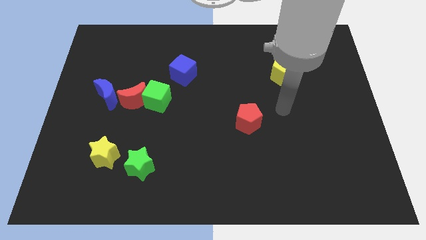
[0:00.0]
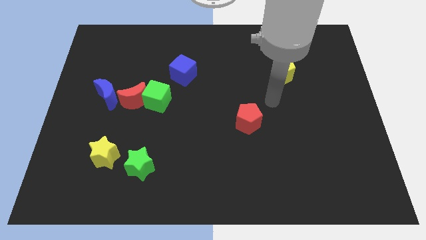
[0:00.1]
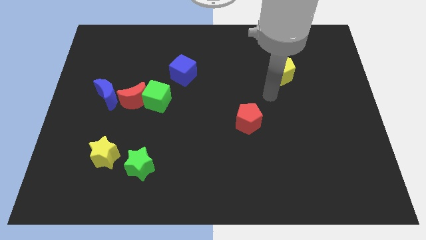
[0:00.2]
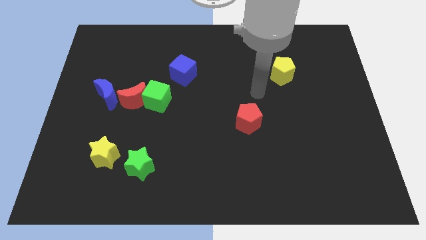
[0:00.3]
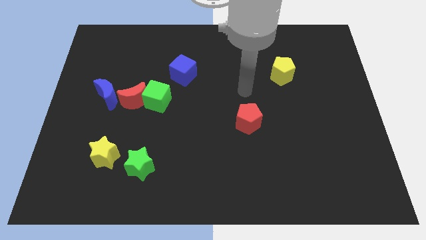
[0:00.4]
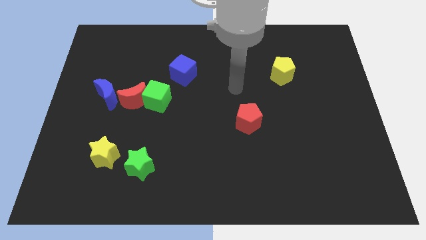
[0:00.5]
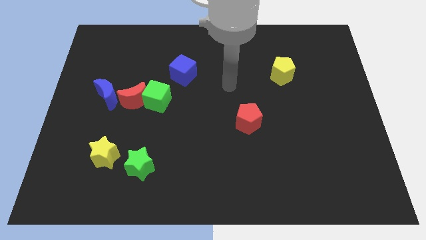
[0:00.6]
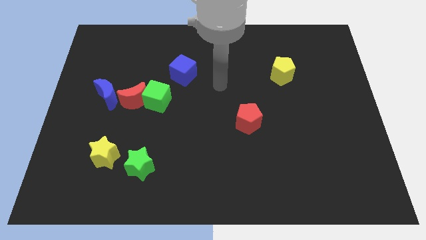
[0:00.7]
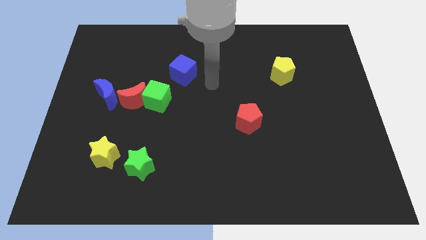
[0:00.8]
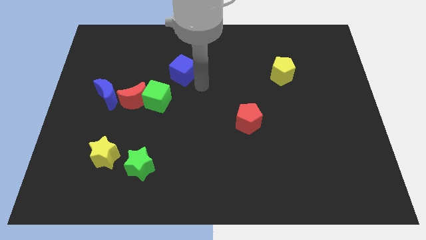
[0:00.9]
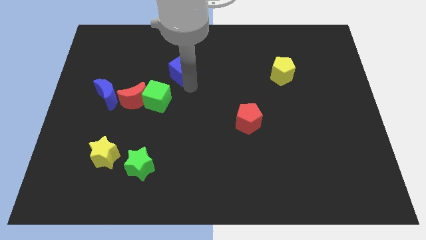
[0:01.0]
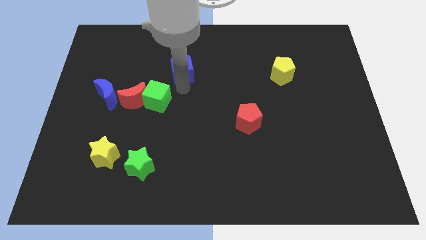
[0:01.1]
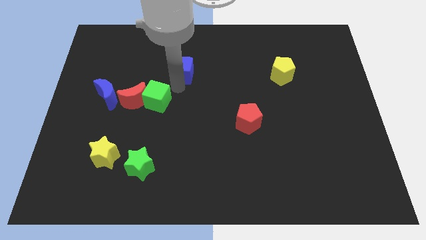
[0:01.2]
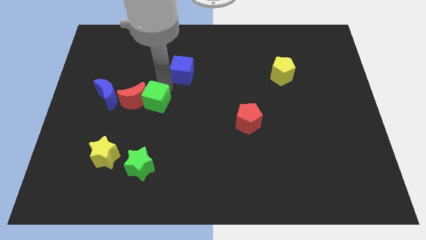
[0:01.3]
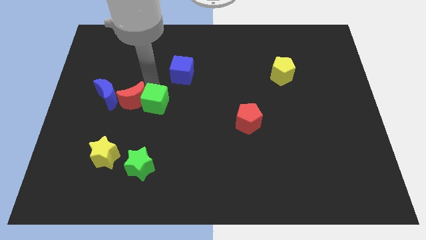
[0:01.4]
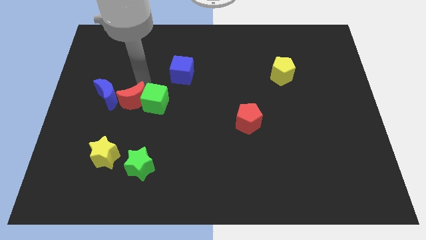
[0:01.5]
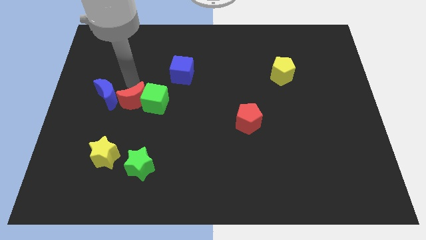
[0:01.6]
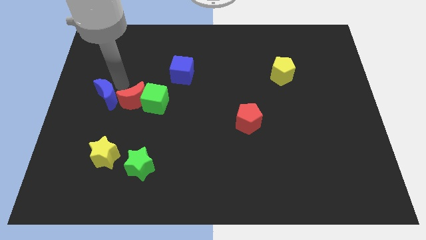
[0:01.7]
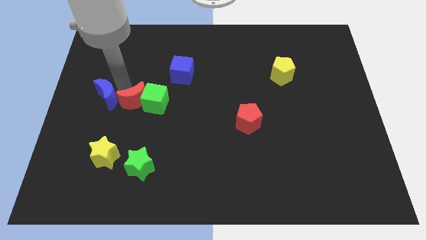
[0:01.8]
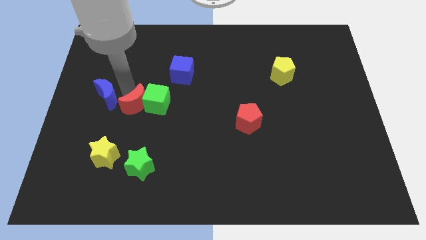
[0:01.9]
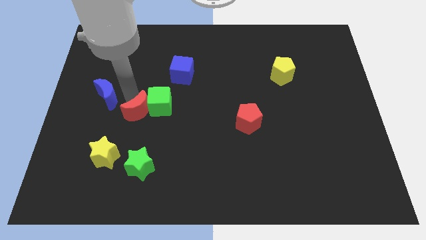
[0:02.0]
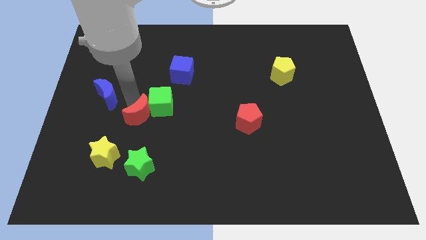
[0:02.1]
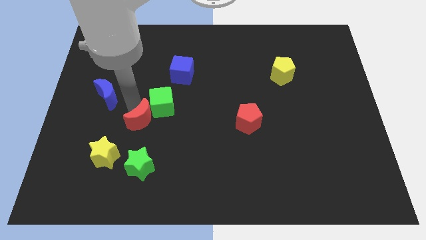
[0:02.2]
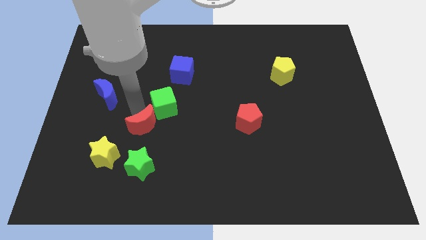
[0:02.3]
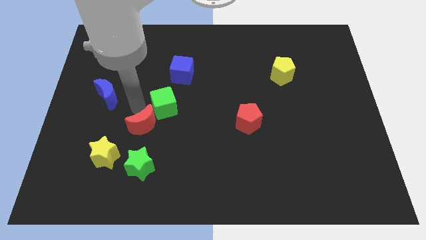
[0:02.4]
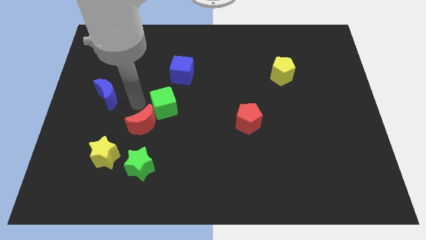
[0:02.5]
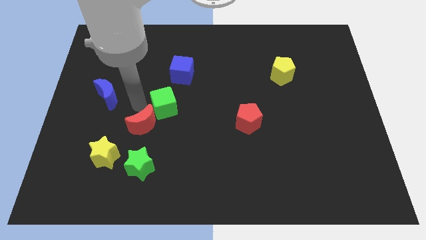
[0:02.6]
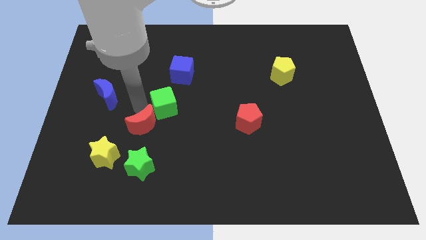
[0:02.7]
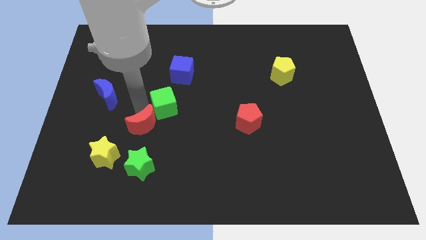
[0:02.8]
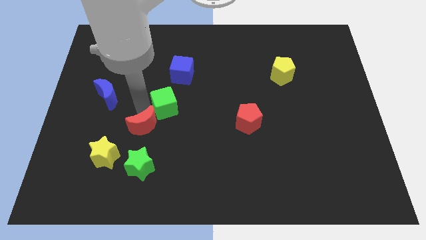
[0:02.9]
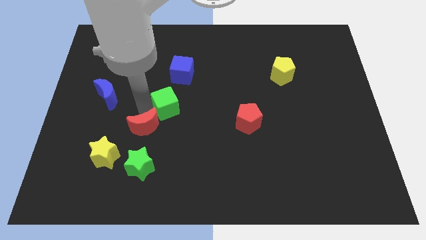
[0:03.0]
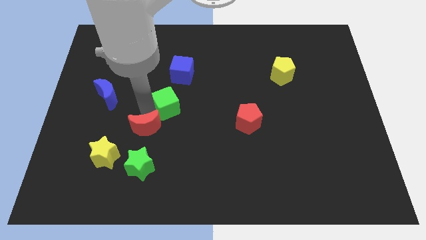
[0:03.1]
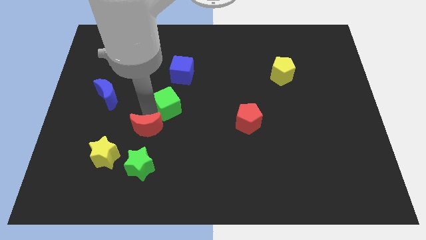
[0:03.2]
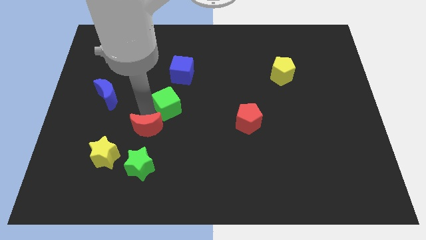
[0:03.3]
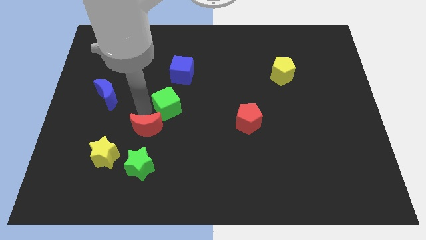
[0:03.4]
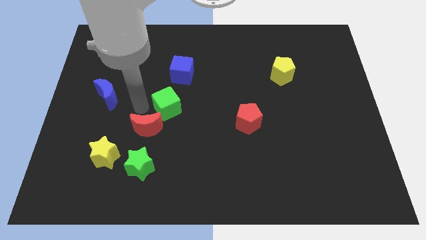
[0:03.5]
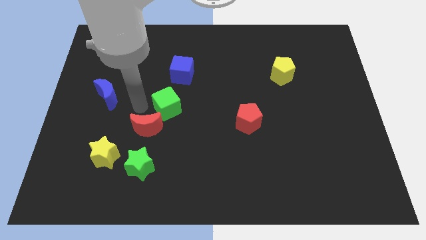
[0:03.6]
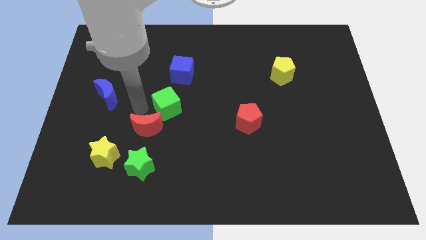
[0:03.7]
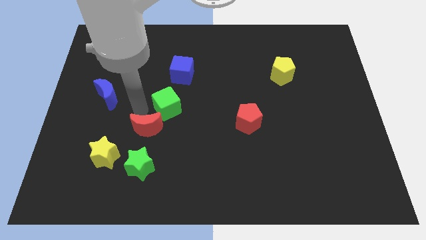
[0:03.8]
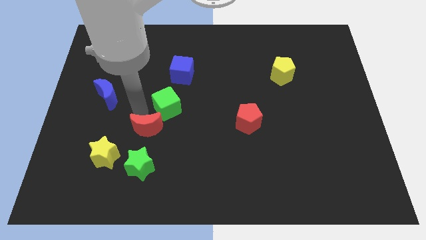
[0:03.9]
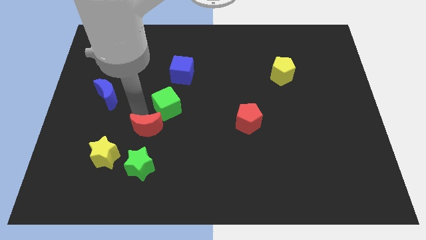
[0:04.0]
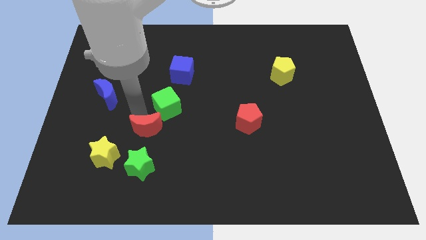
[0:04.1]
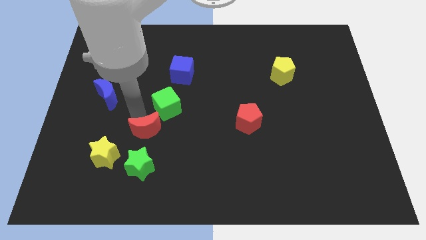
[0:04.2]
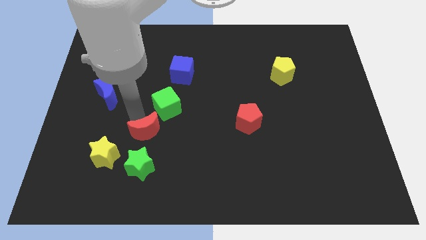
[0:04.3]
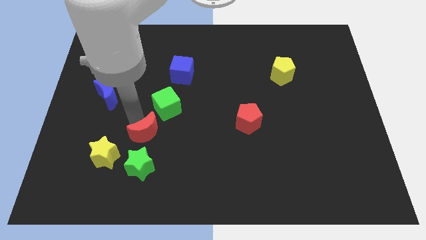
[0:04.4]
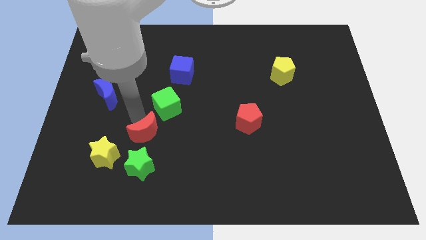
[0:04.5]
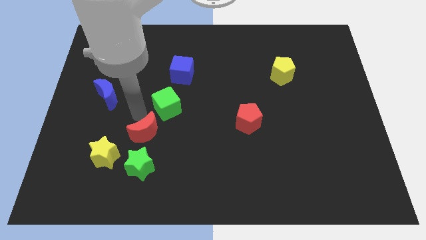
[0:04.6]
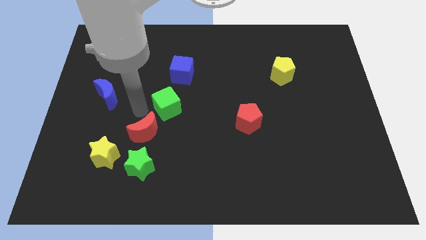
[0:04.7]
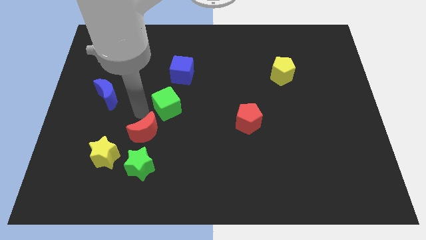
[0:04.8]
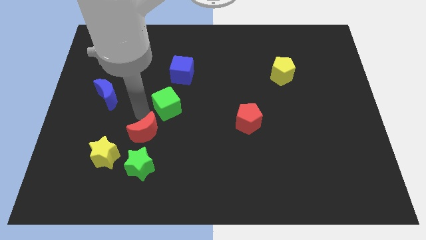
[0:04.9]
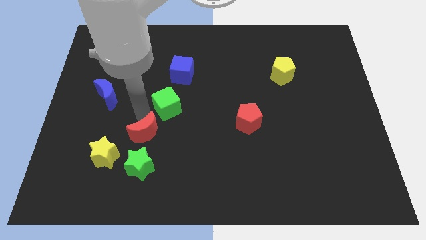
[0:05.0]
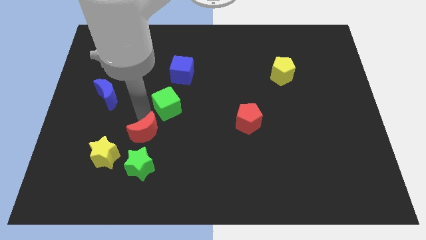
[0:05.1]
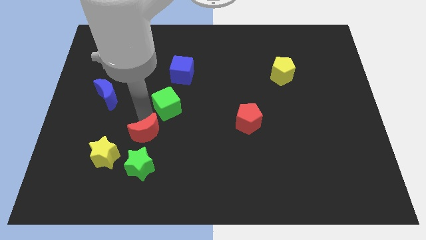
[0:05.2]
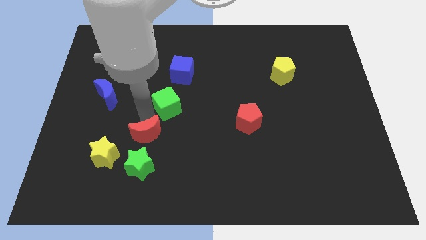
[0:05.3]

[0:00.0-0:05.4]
pull the red moon apart from the green cube and blue moon

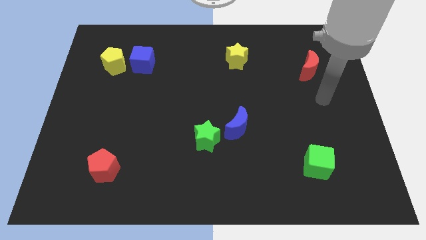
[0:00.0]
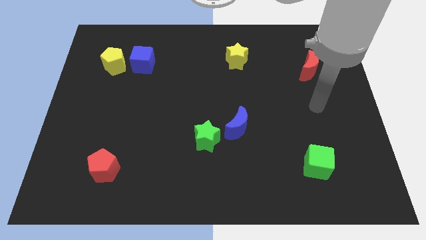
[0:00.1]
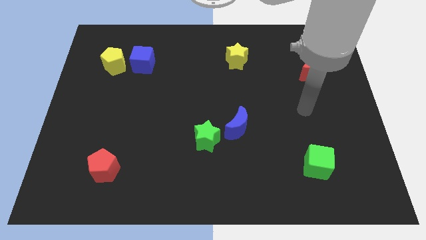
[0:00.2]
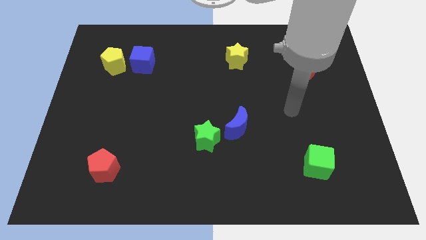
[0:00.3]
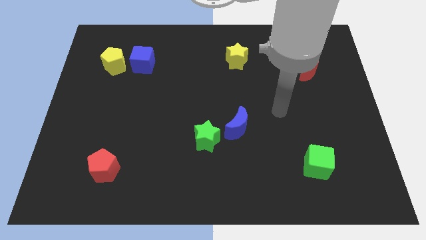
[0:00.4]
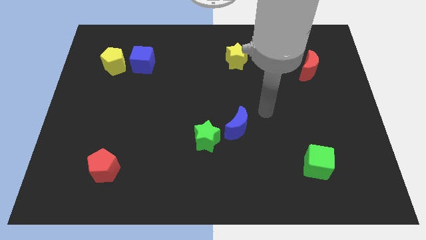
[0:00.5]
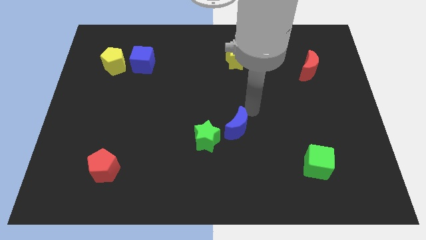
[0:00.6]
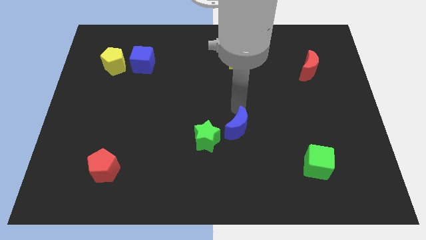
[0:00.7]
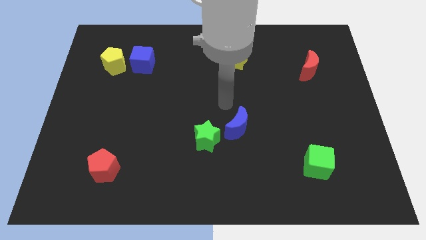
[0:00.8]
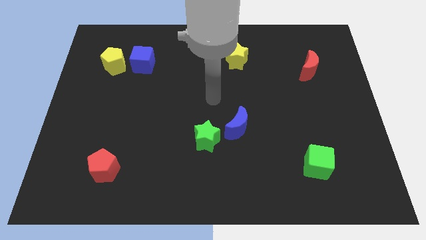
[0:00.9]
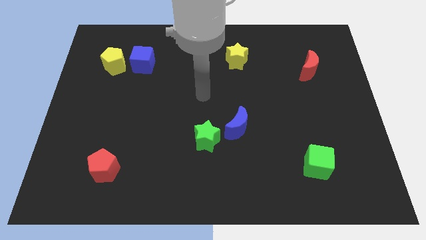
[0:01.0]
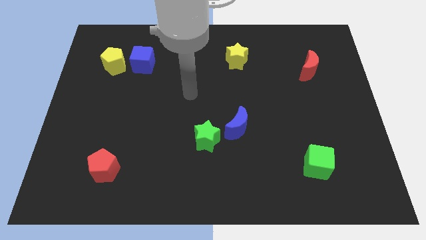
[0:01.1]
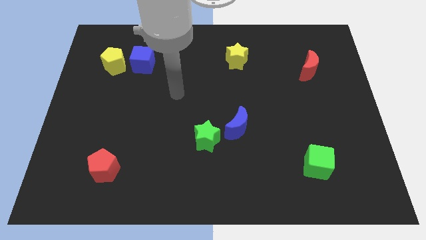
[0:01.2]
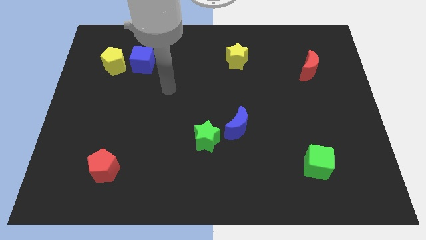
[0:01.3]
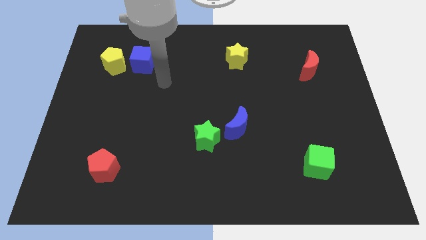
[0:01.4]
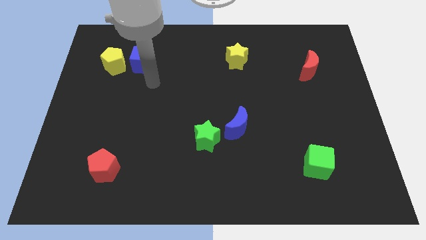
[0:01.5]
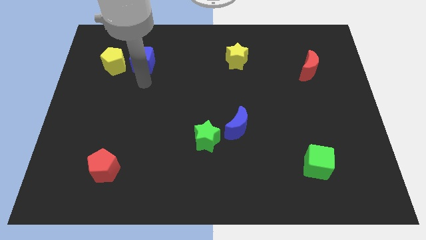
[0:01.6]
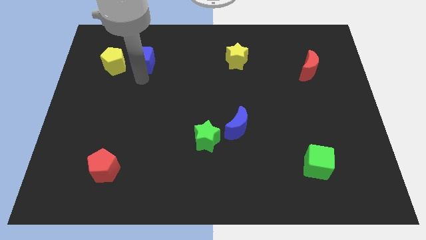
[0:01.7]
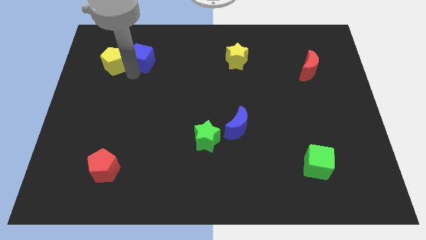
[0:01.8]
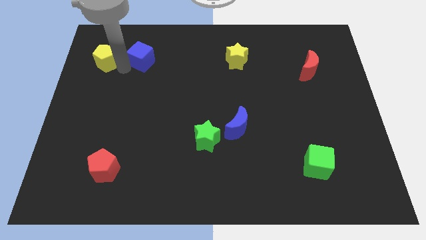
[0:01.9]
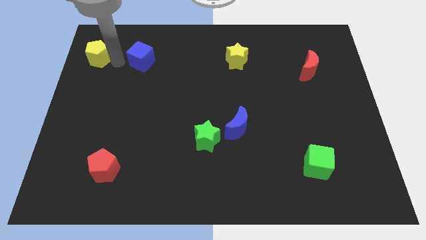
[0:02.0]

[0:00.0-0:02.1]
move the blue cube away from the yellow pentagon

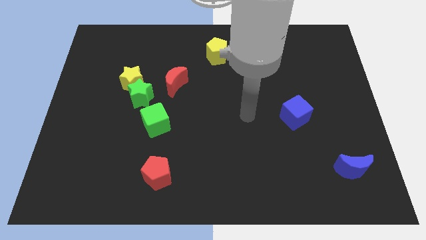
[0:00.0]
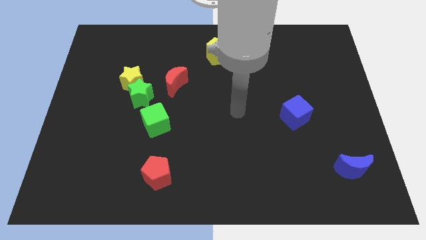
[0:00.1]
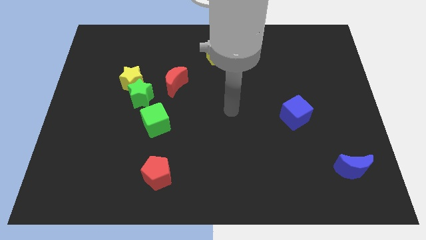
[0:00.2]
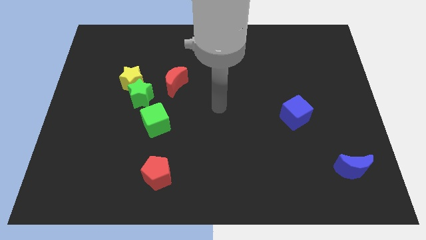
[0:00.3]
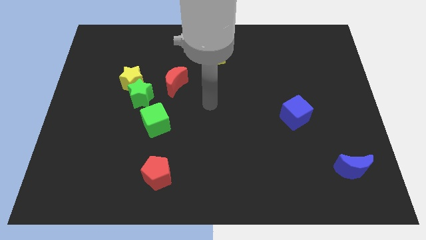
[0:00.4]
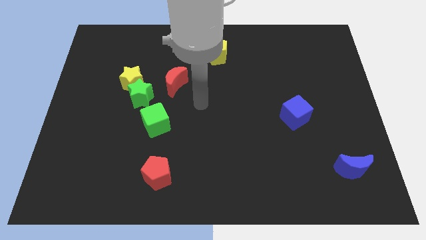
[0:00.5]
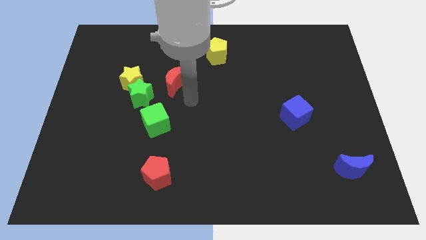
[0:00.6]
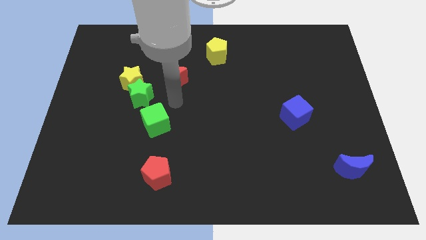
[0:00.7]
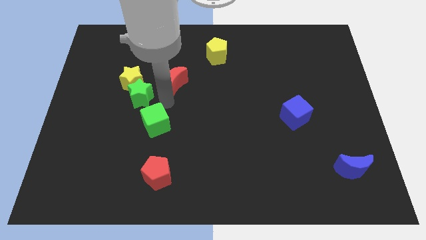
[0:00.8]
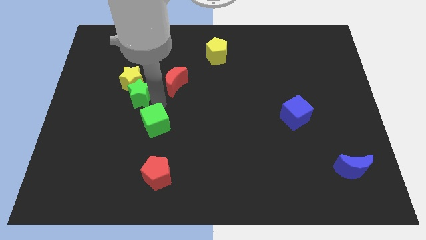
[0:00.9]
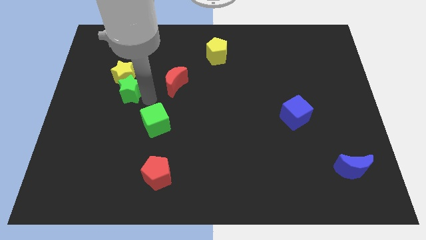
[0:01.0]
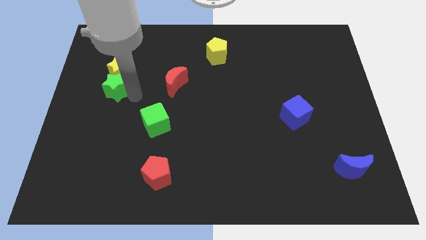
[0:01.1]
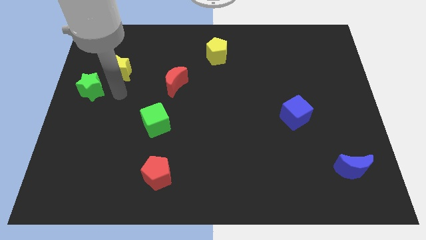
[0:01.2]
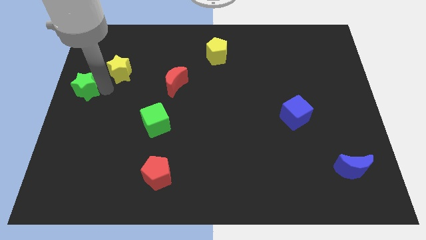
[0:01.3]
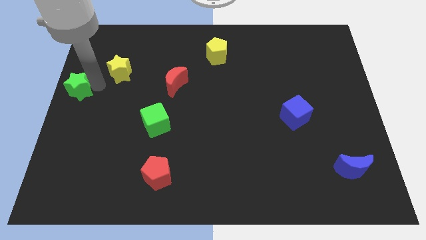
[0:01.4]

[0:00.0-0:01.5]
move the yellow star away from the green star

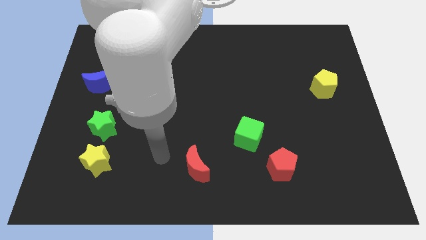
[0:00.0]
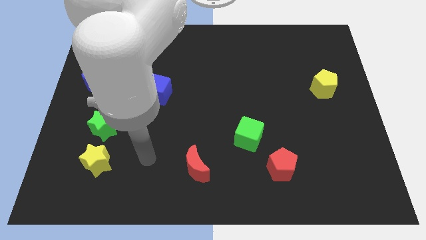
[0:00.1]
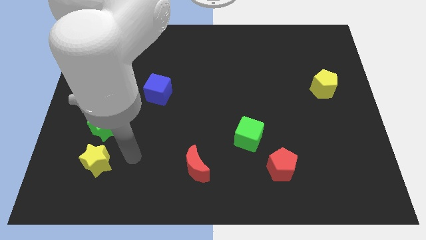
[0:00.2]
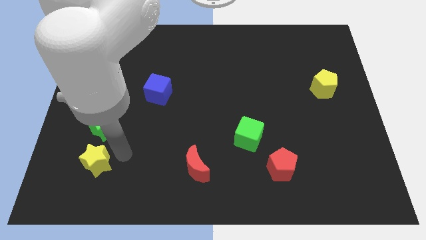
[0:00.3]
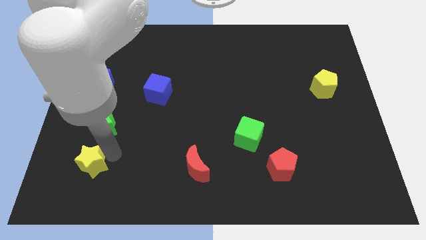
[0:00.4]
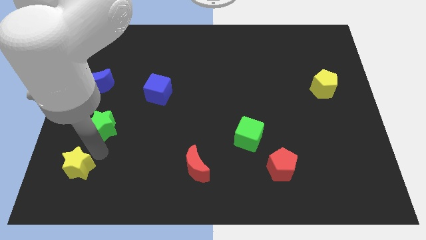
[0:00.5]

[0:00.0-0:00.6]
separate the green star from the yellow star
